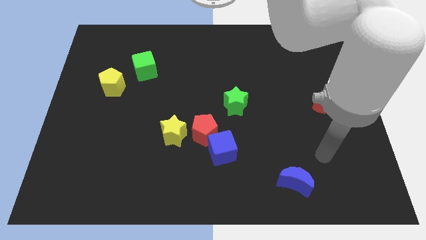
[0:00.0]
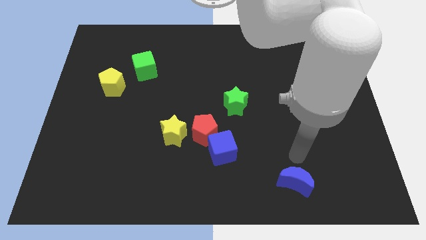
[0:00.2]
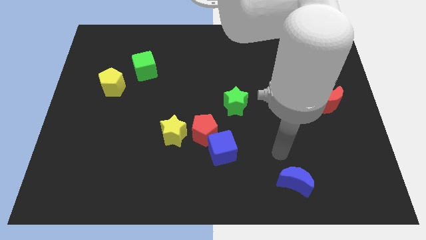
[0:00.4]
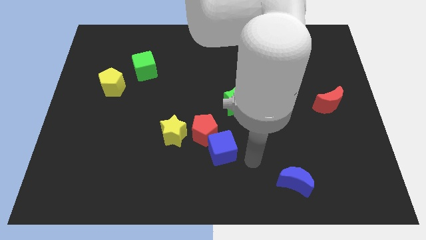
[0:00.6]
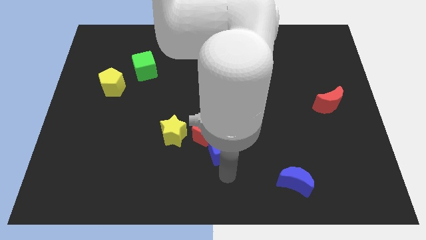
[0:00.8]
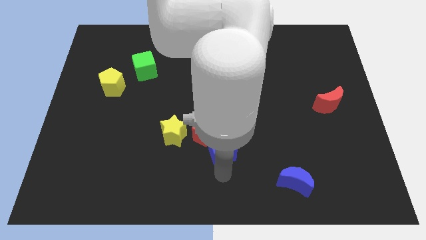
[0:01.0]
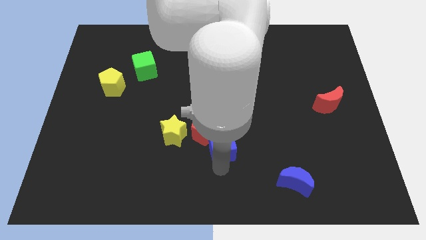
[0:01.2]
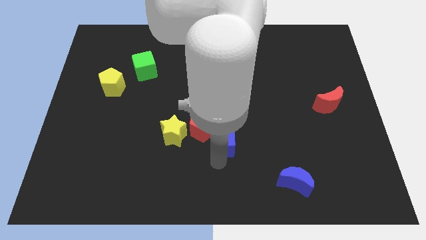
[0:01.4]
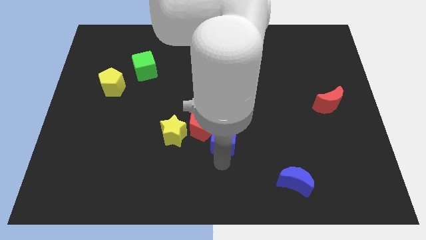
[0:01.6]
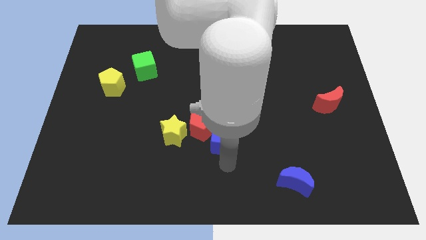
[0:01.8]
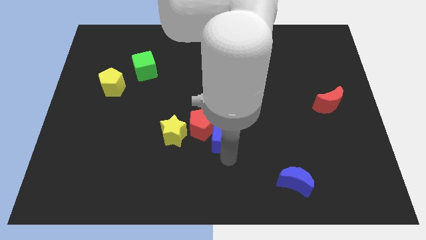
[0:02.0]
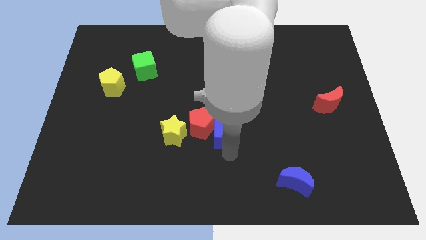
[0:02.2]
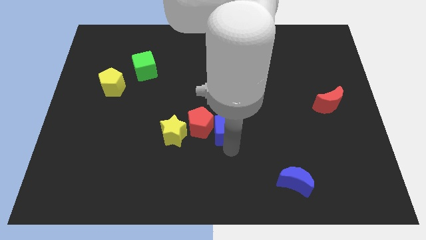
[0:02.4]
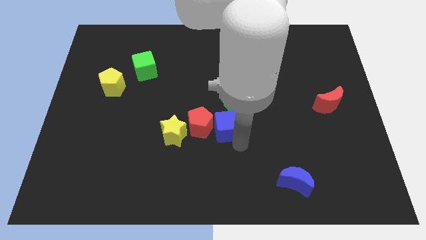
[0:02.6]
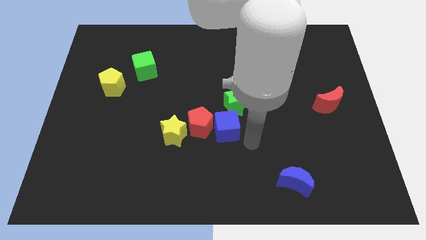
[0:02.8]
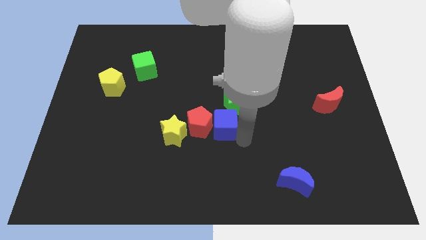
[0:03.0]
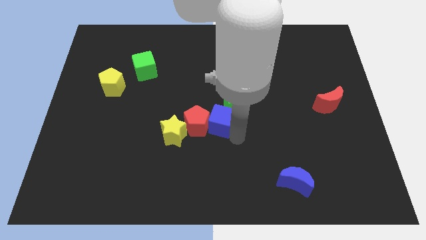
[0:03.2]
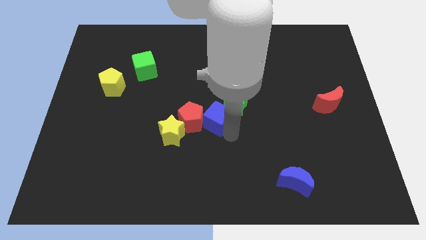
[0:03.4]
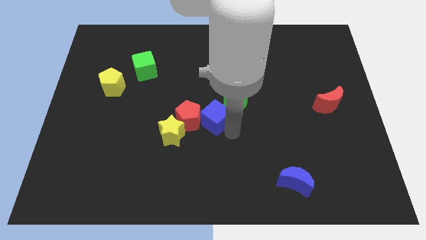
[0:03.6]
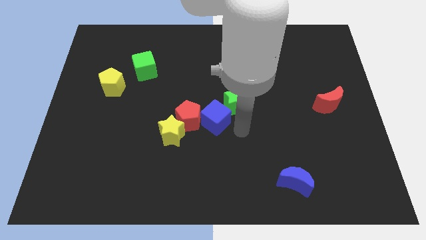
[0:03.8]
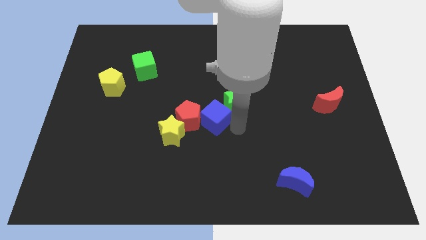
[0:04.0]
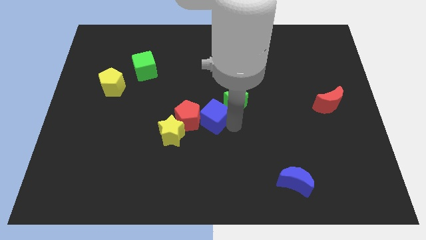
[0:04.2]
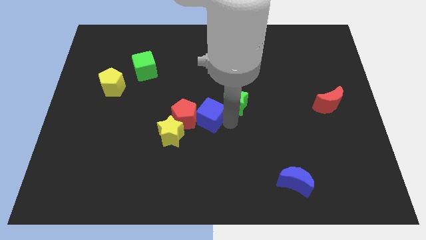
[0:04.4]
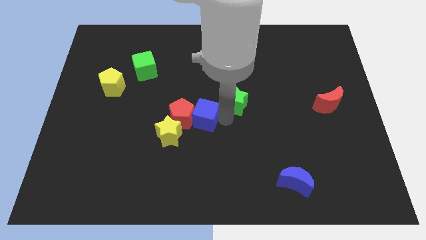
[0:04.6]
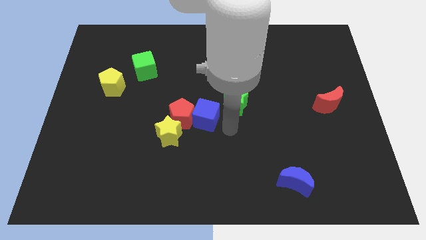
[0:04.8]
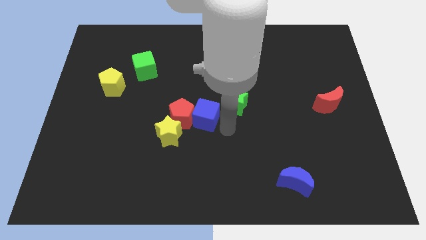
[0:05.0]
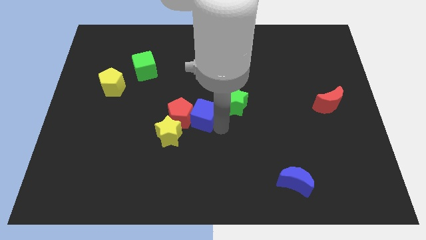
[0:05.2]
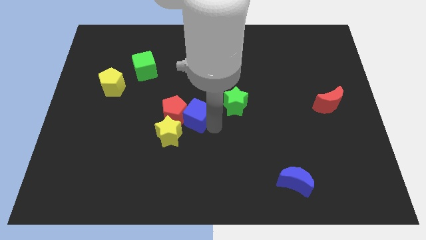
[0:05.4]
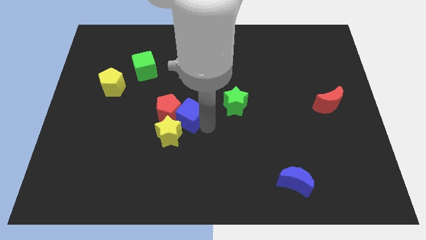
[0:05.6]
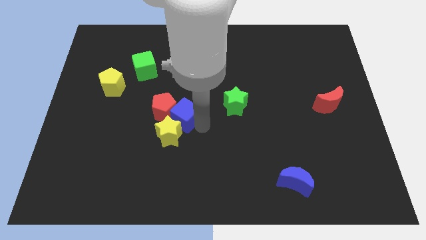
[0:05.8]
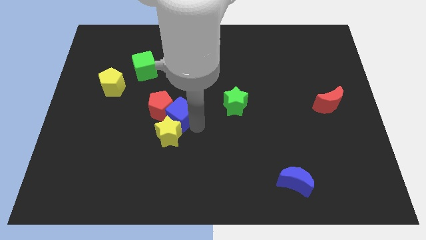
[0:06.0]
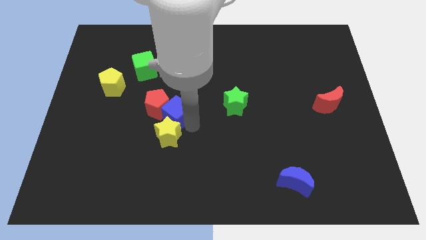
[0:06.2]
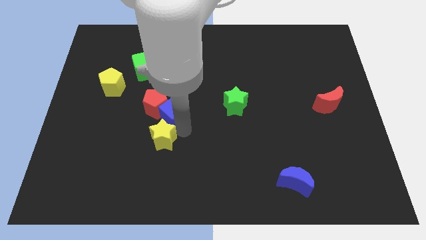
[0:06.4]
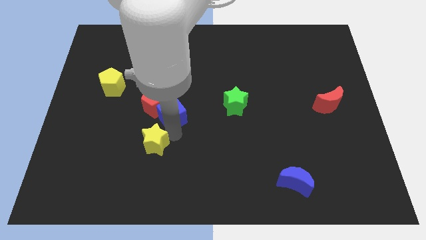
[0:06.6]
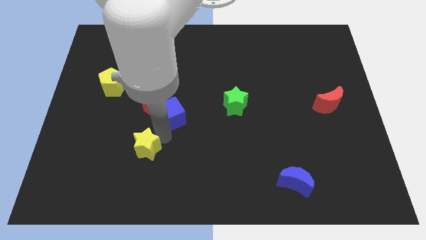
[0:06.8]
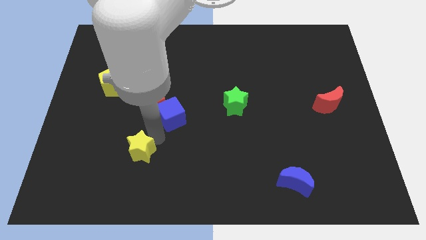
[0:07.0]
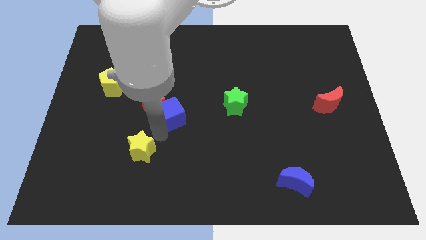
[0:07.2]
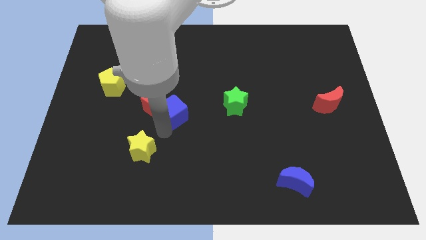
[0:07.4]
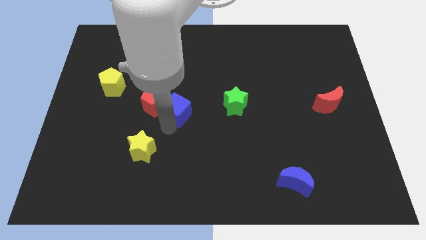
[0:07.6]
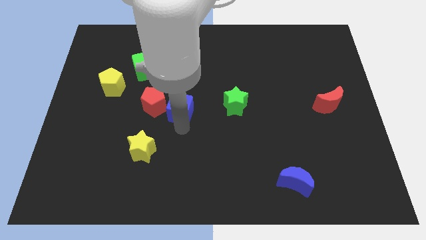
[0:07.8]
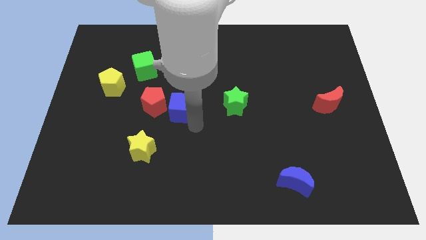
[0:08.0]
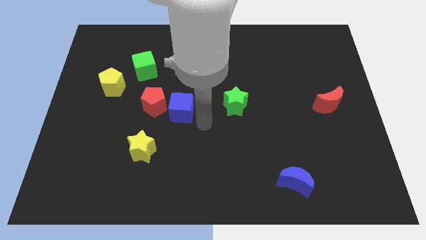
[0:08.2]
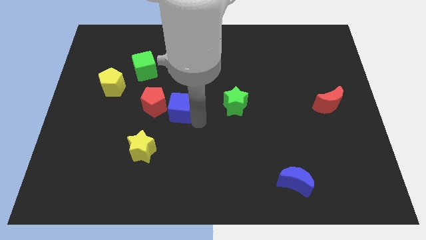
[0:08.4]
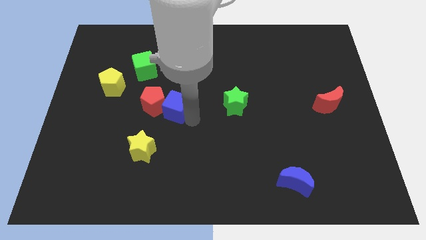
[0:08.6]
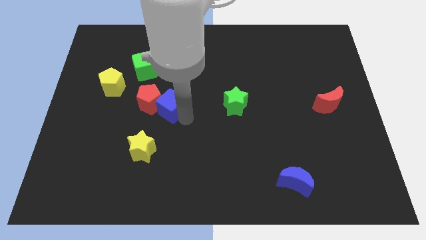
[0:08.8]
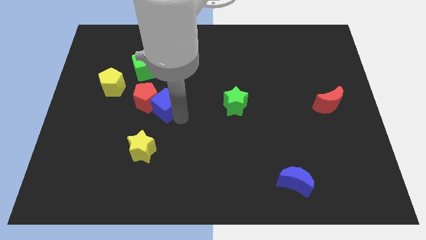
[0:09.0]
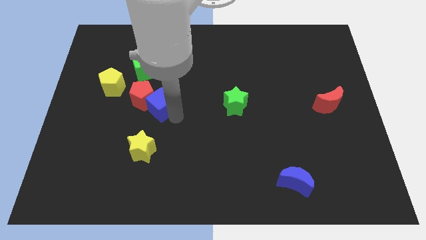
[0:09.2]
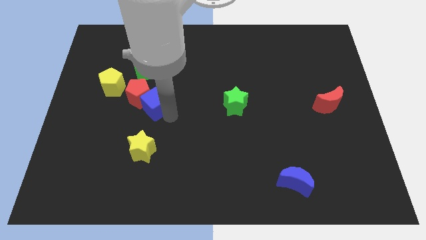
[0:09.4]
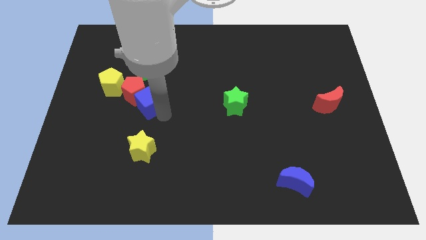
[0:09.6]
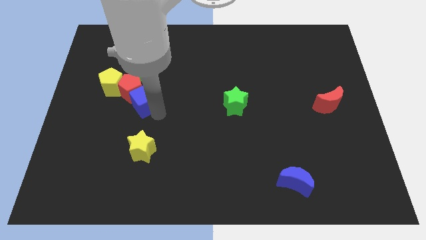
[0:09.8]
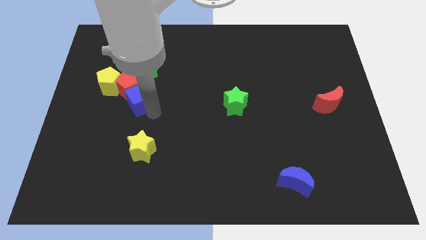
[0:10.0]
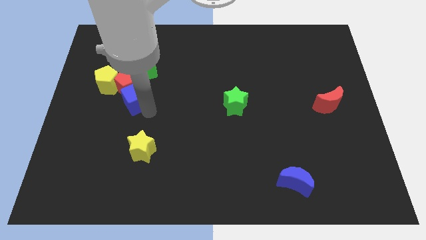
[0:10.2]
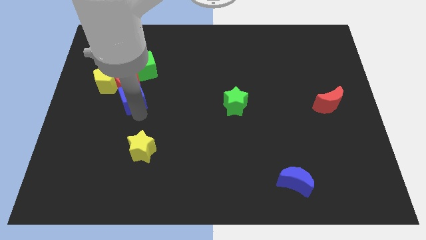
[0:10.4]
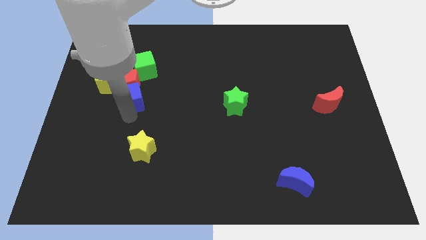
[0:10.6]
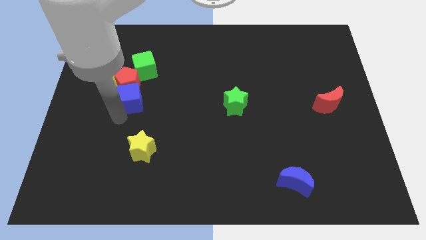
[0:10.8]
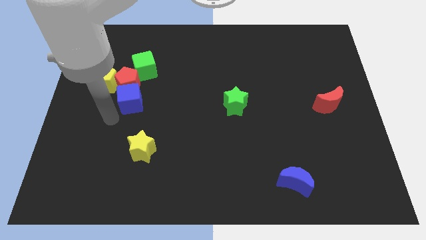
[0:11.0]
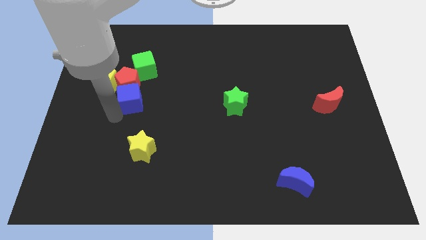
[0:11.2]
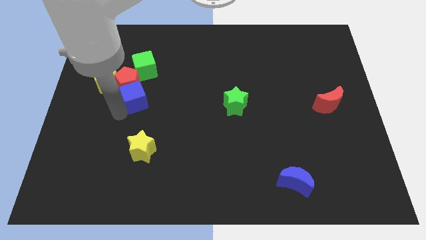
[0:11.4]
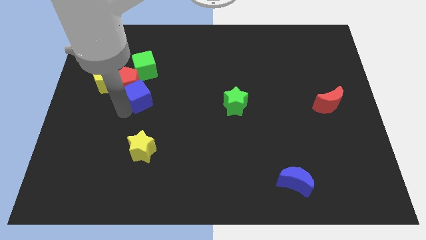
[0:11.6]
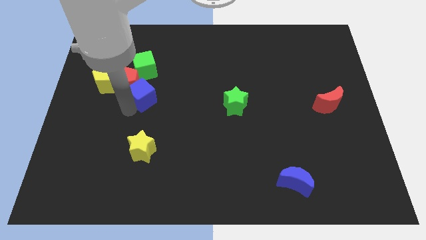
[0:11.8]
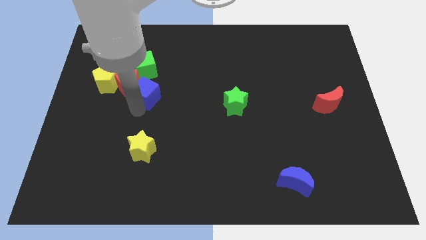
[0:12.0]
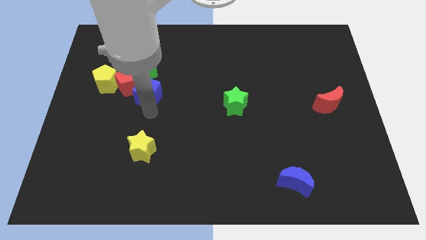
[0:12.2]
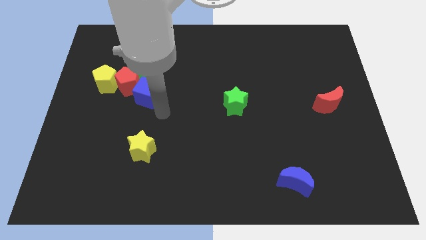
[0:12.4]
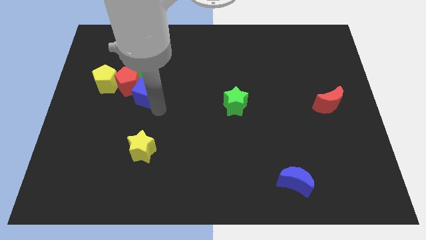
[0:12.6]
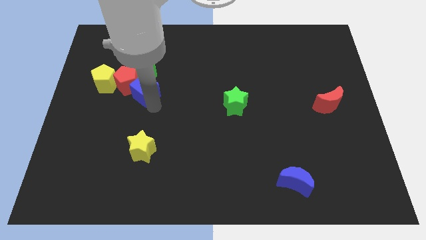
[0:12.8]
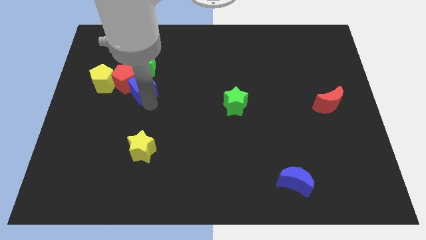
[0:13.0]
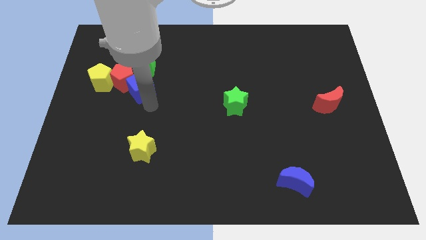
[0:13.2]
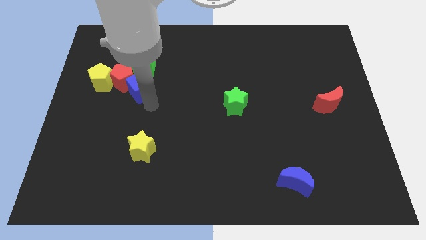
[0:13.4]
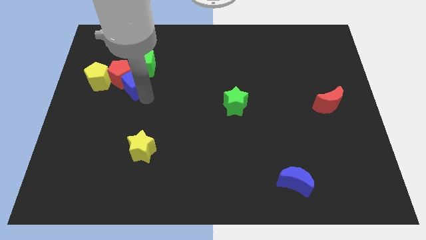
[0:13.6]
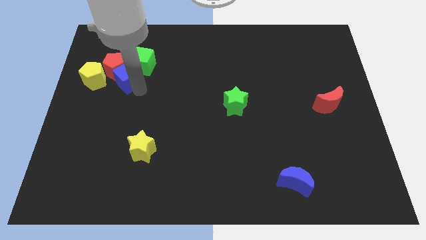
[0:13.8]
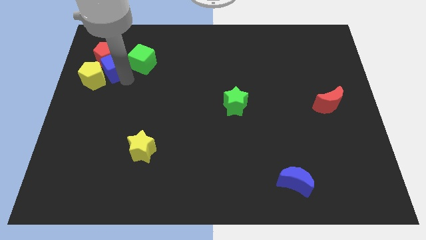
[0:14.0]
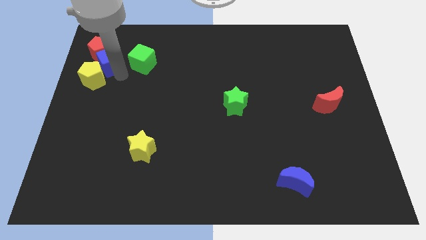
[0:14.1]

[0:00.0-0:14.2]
slide the blue cube to the top side of the yellow pentagon

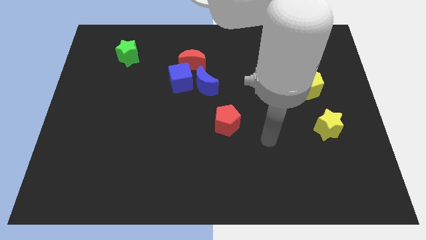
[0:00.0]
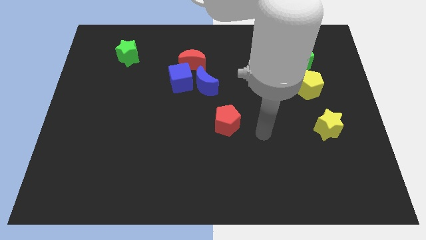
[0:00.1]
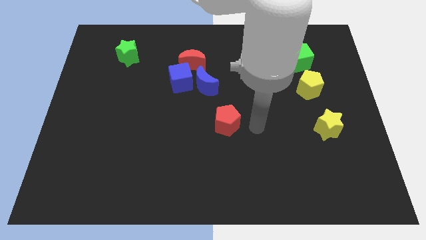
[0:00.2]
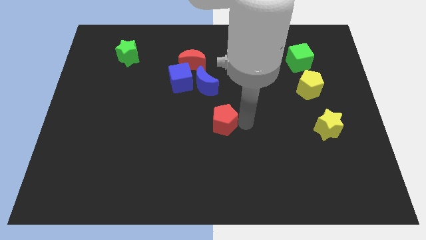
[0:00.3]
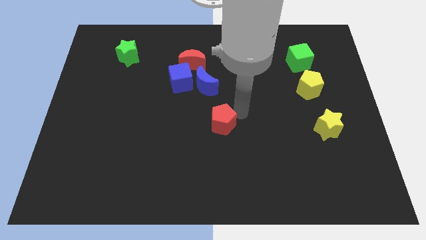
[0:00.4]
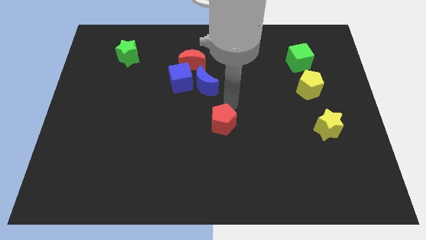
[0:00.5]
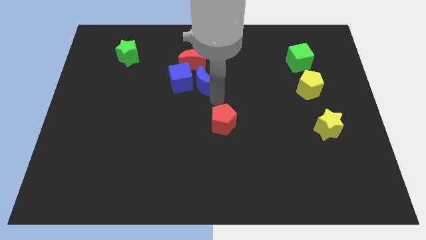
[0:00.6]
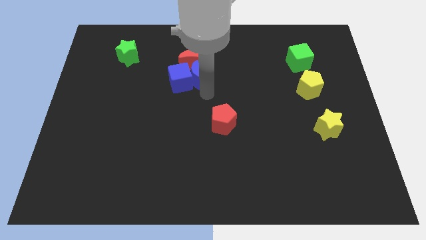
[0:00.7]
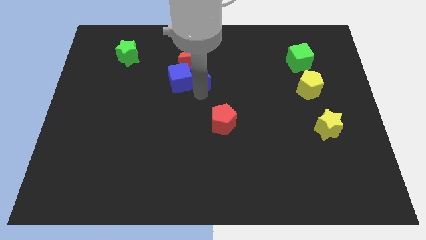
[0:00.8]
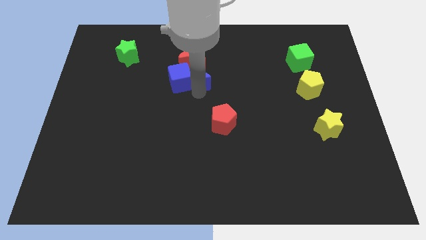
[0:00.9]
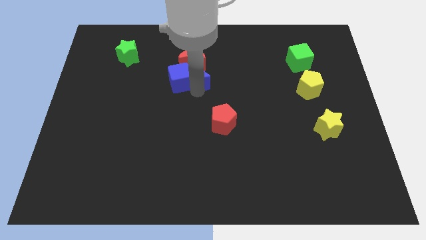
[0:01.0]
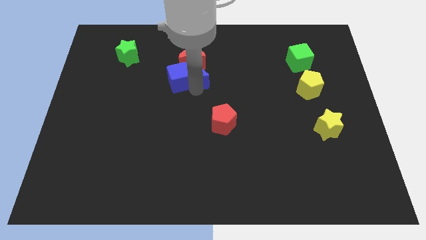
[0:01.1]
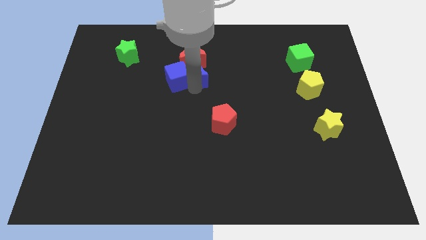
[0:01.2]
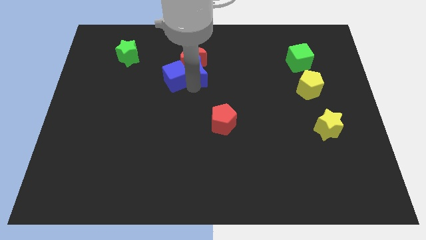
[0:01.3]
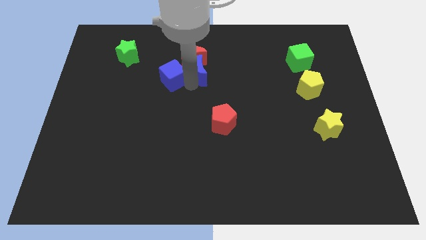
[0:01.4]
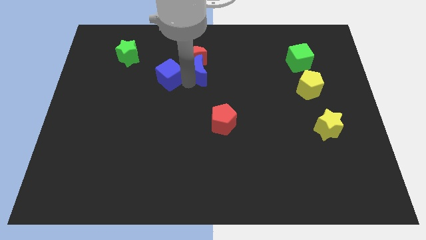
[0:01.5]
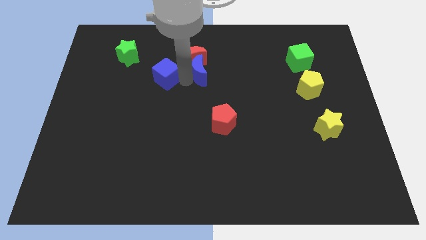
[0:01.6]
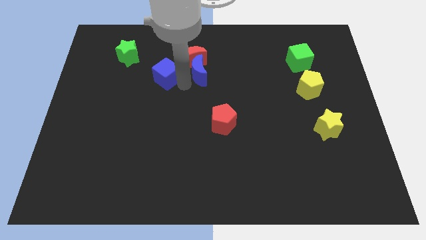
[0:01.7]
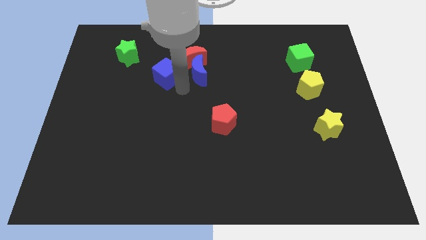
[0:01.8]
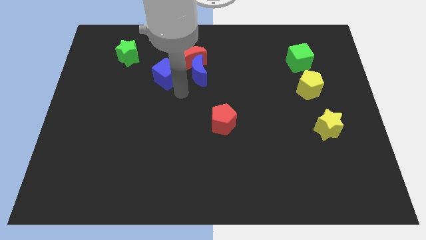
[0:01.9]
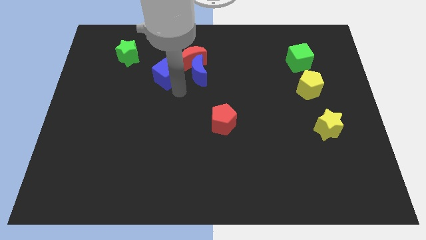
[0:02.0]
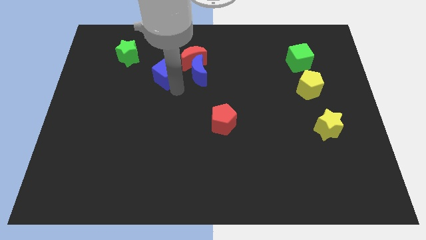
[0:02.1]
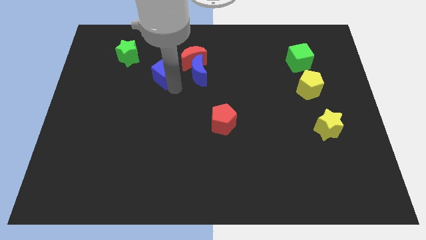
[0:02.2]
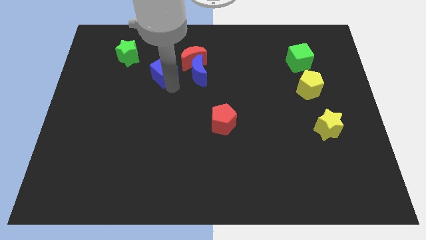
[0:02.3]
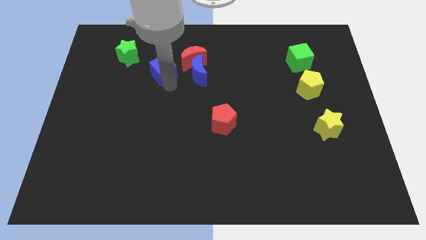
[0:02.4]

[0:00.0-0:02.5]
push the blue cube just left of the red moon
